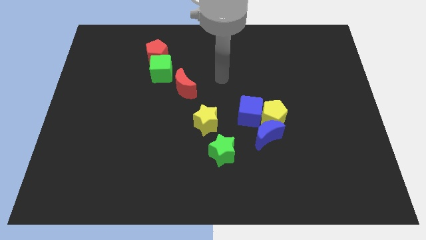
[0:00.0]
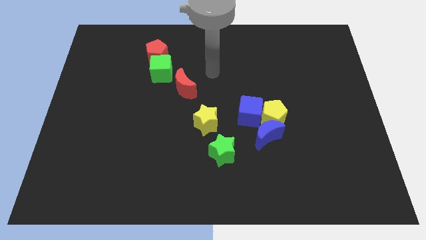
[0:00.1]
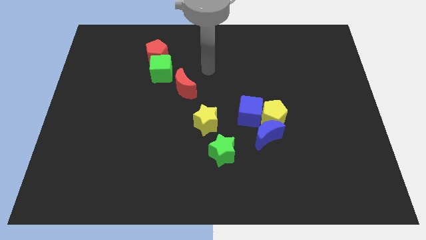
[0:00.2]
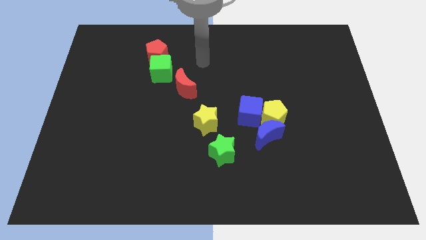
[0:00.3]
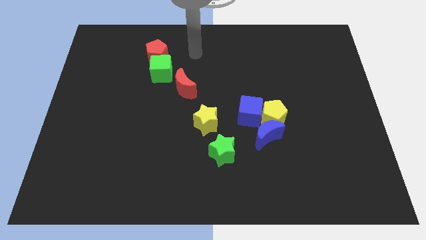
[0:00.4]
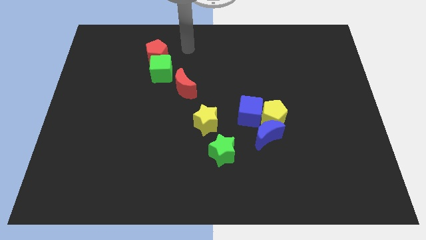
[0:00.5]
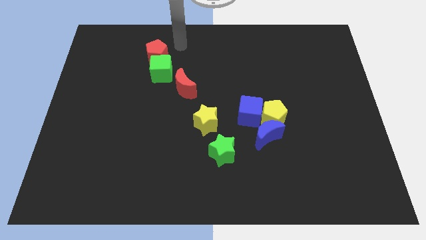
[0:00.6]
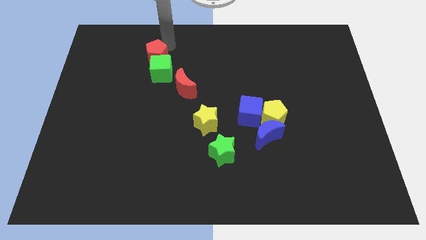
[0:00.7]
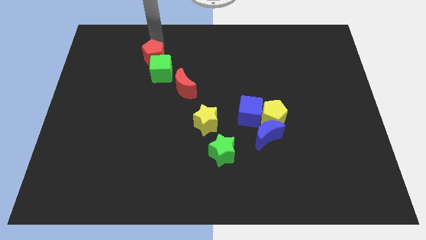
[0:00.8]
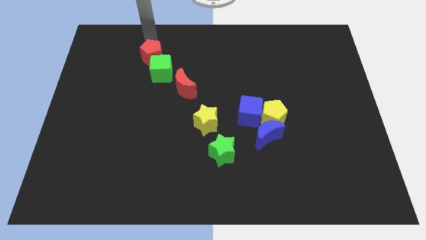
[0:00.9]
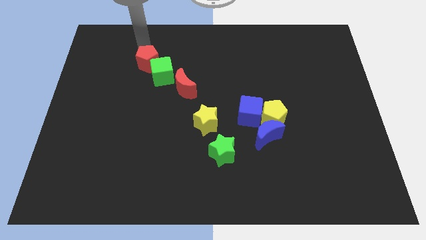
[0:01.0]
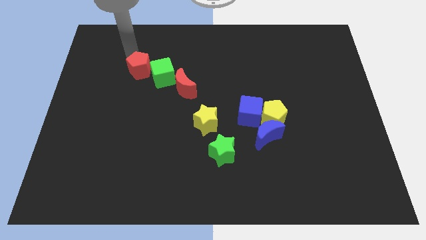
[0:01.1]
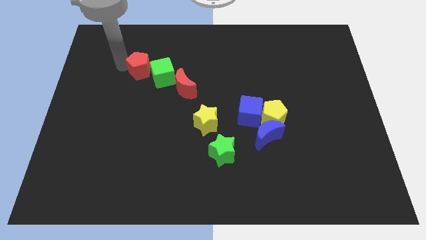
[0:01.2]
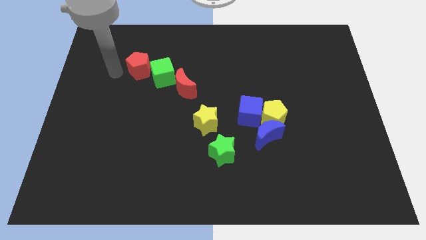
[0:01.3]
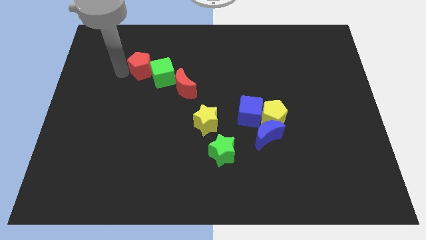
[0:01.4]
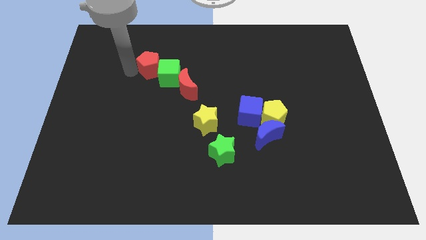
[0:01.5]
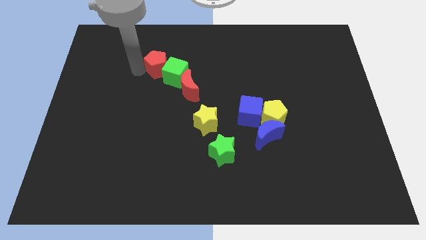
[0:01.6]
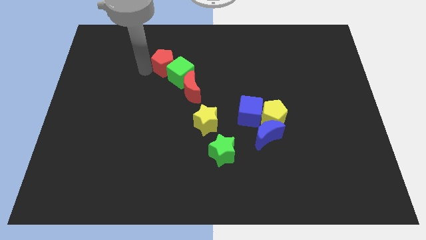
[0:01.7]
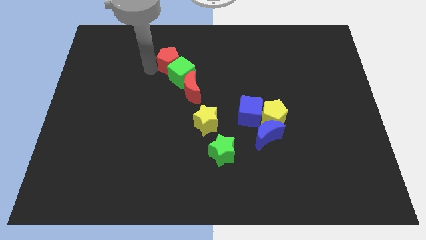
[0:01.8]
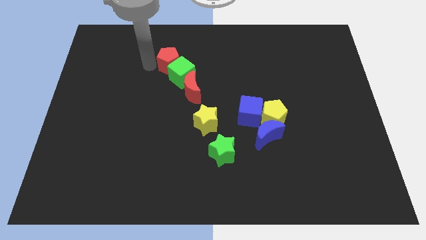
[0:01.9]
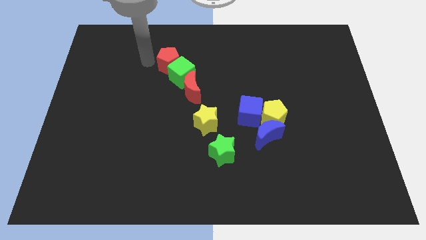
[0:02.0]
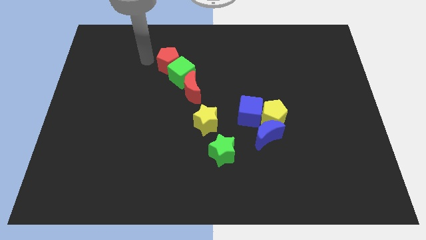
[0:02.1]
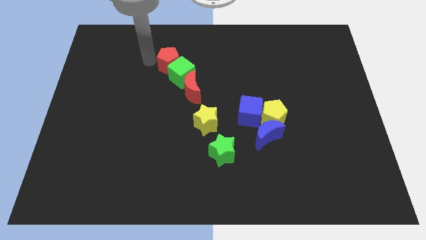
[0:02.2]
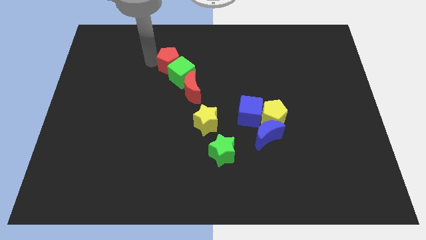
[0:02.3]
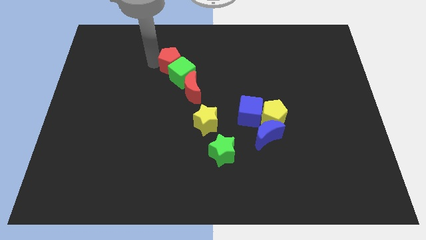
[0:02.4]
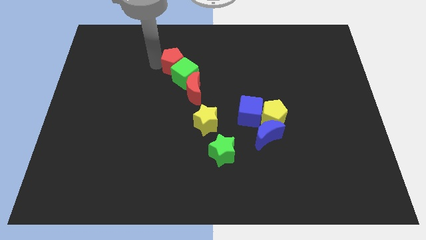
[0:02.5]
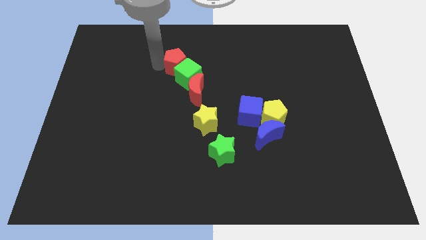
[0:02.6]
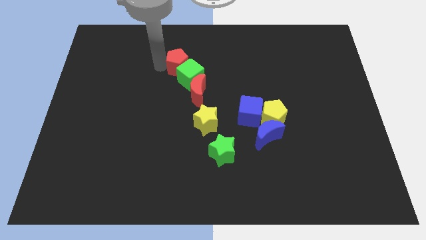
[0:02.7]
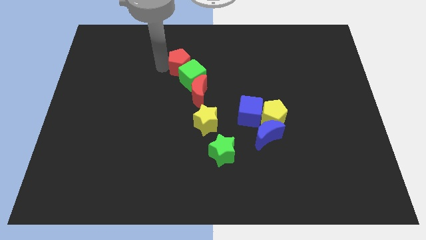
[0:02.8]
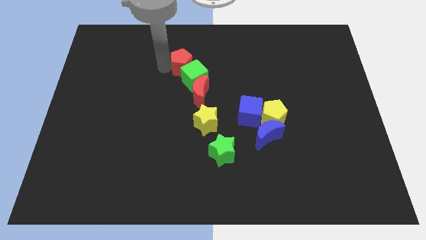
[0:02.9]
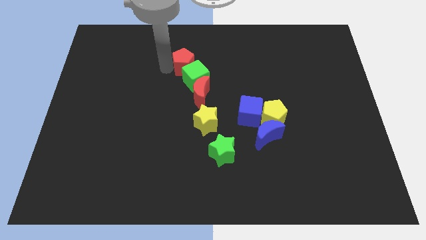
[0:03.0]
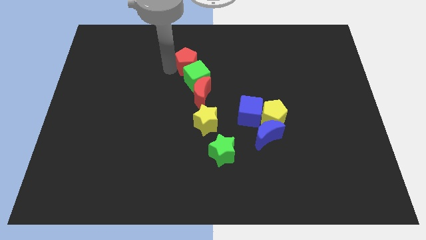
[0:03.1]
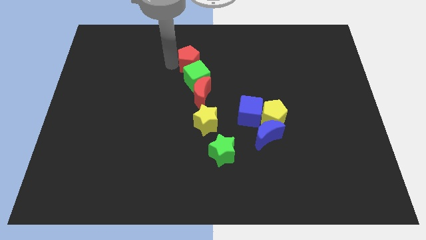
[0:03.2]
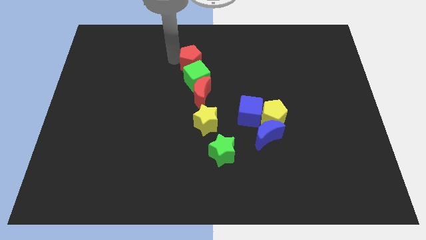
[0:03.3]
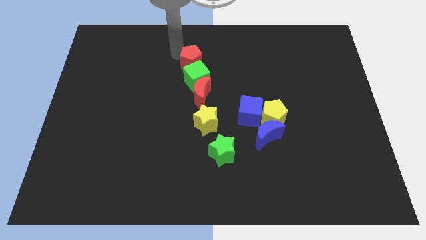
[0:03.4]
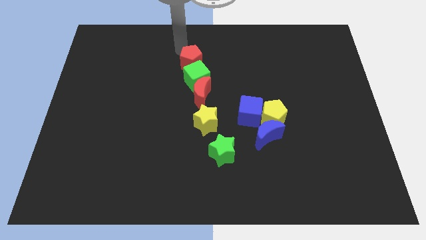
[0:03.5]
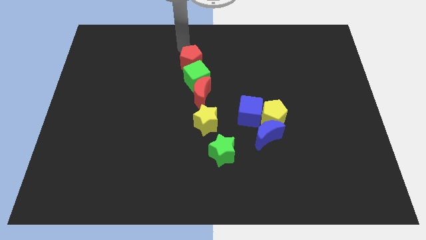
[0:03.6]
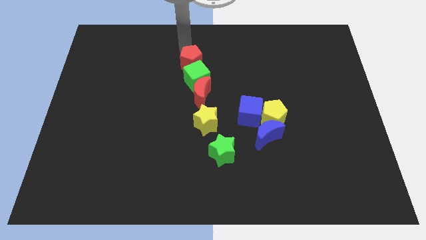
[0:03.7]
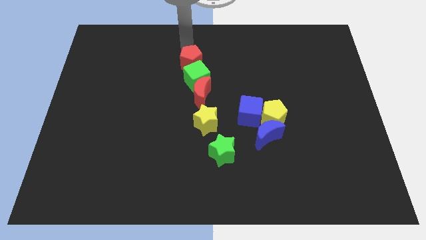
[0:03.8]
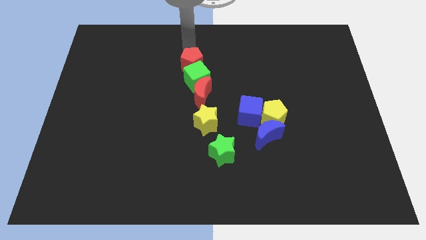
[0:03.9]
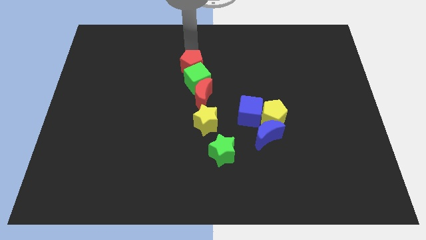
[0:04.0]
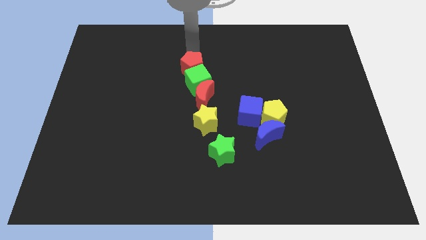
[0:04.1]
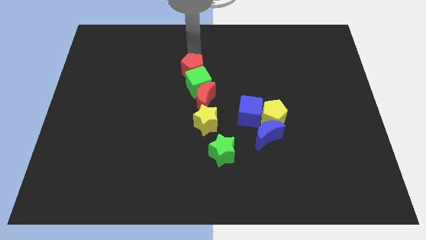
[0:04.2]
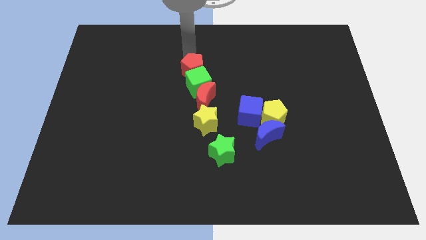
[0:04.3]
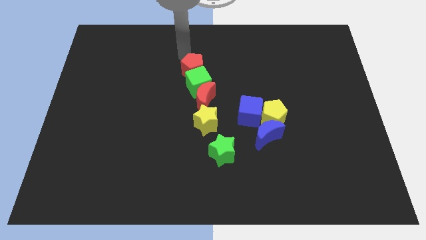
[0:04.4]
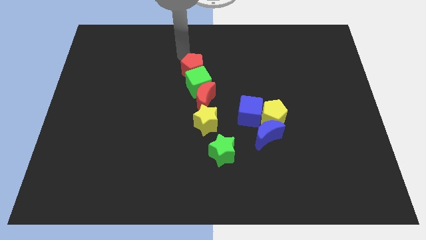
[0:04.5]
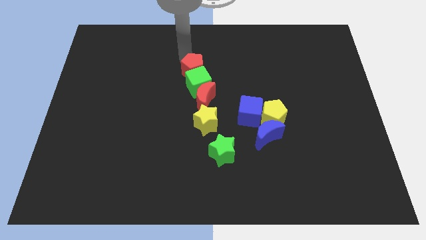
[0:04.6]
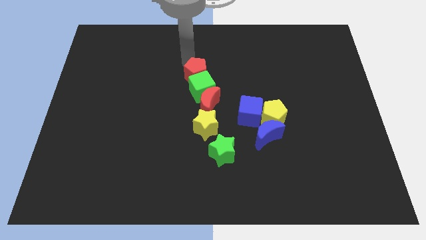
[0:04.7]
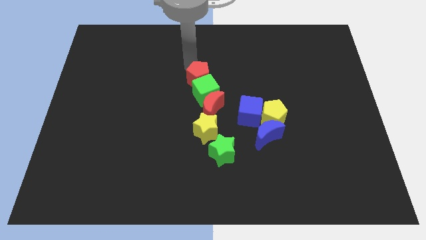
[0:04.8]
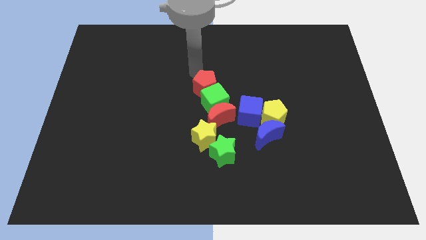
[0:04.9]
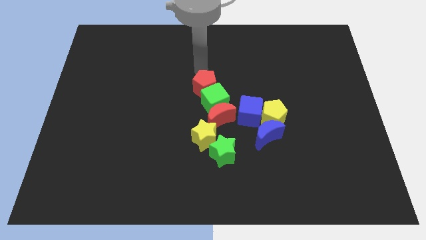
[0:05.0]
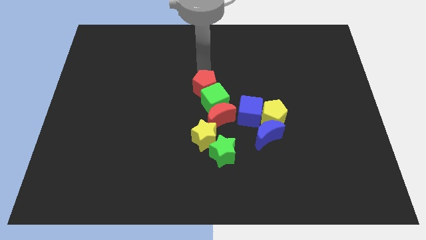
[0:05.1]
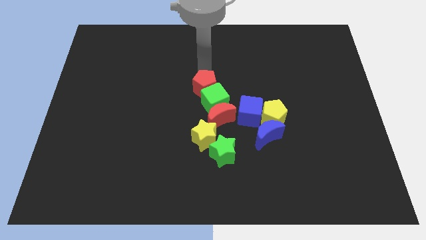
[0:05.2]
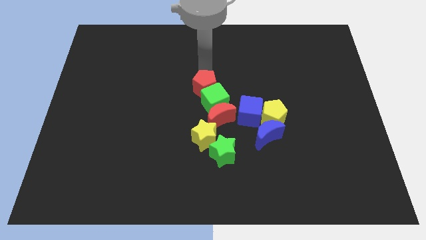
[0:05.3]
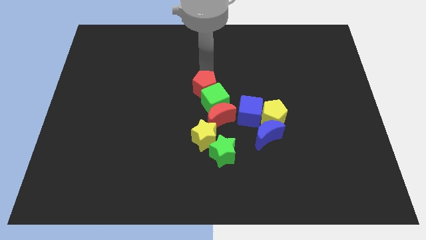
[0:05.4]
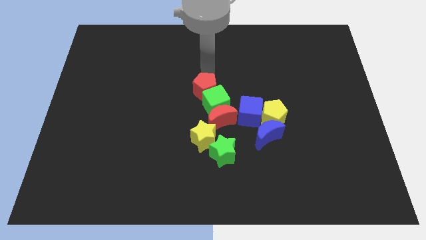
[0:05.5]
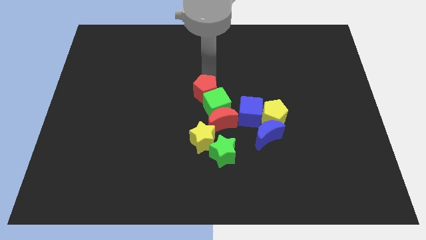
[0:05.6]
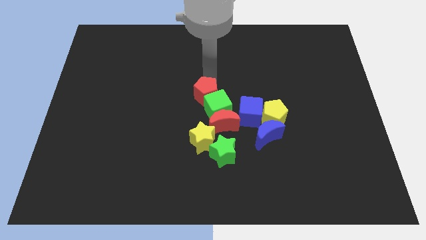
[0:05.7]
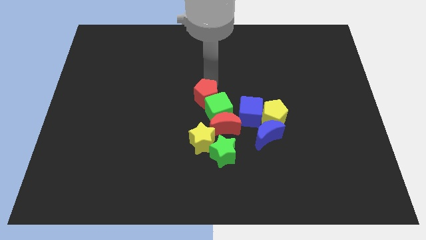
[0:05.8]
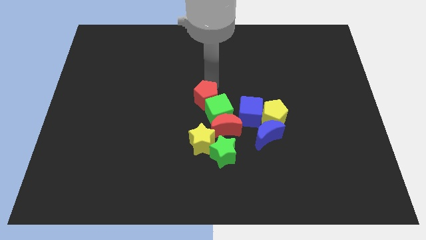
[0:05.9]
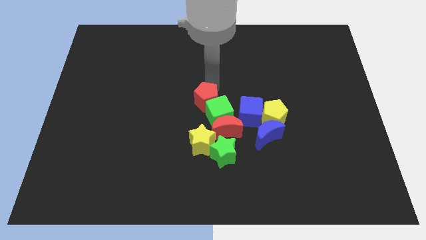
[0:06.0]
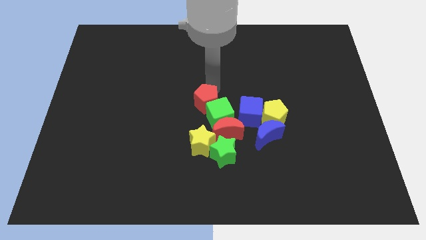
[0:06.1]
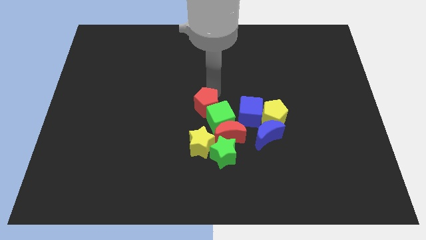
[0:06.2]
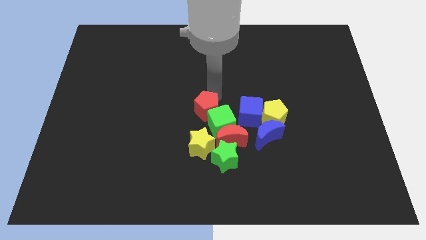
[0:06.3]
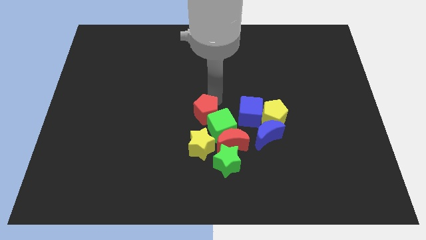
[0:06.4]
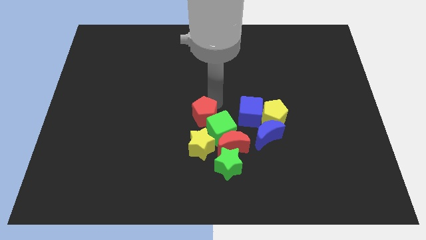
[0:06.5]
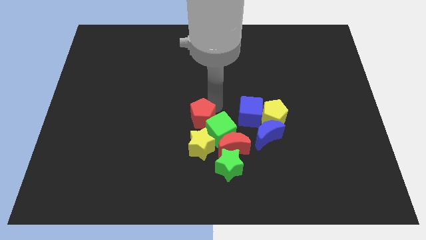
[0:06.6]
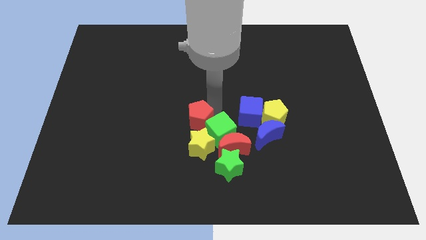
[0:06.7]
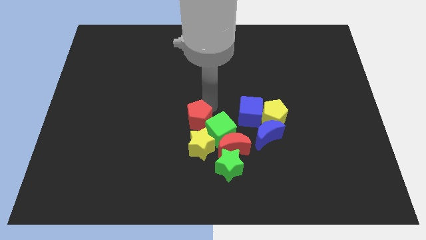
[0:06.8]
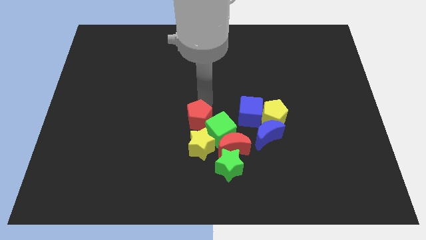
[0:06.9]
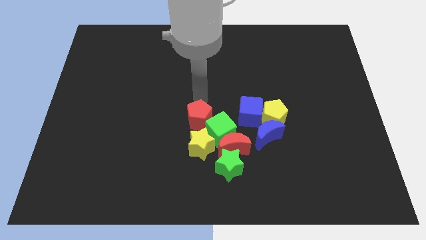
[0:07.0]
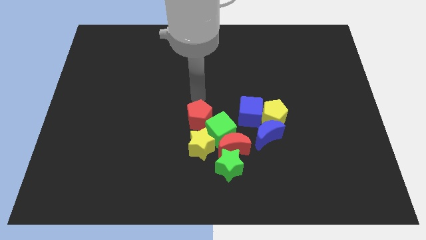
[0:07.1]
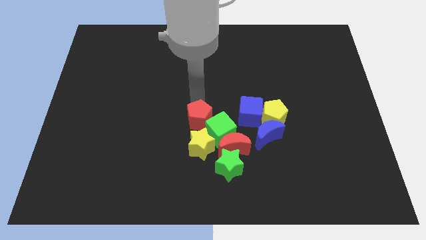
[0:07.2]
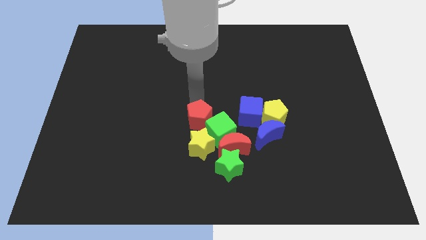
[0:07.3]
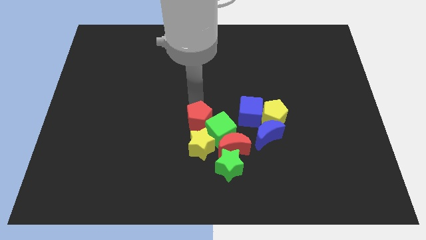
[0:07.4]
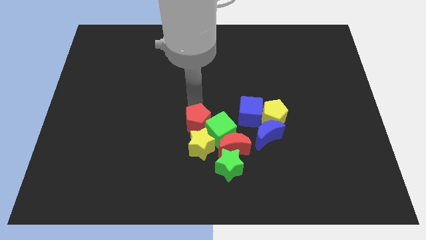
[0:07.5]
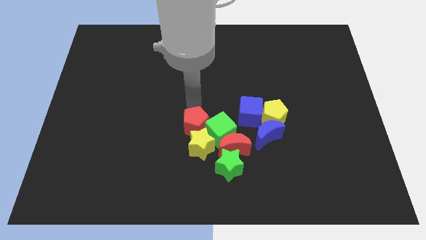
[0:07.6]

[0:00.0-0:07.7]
slide the red pentagon to the yellow star
